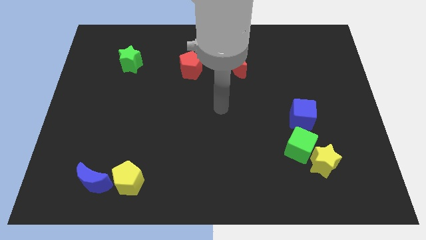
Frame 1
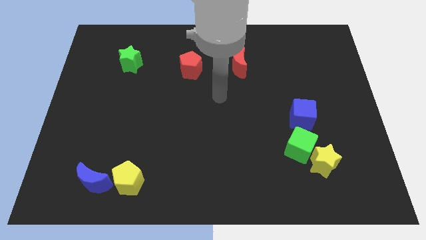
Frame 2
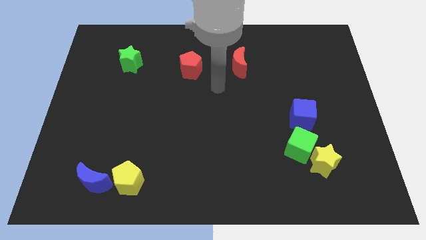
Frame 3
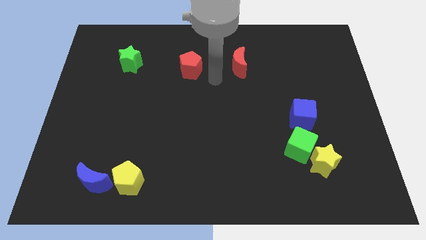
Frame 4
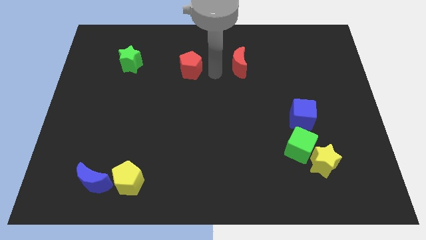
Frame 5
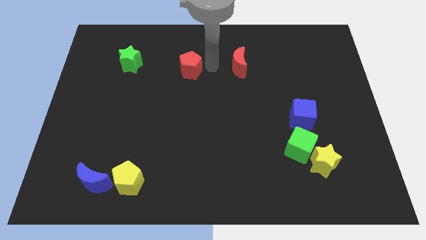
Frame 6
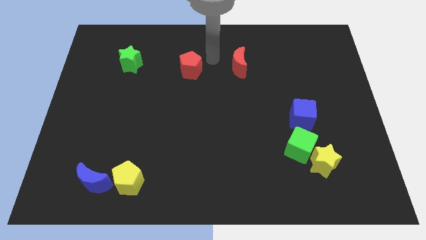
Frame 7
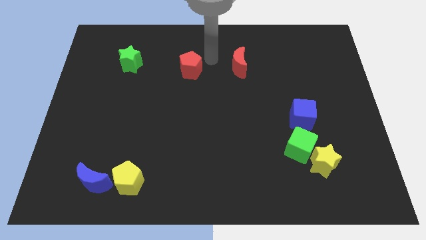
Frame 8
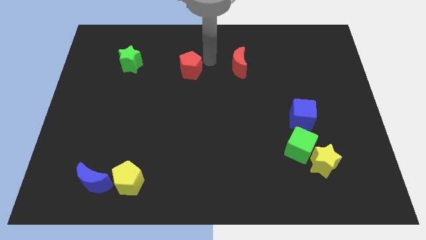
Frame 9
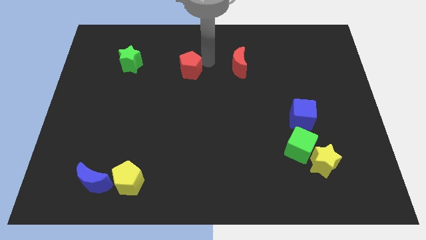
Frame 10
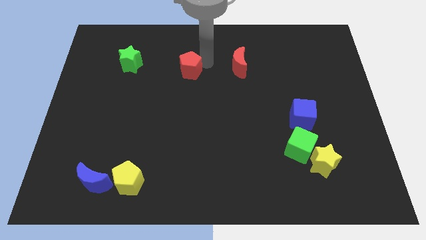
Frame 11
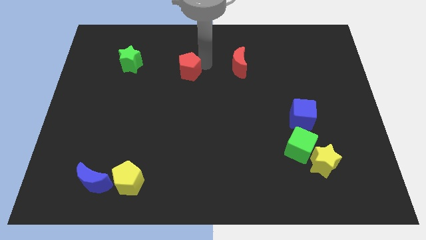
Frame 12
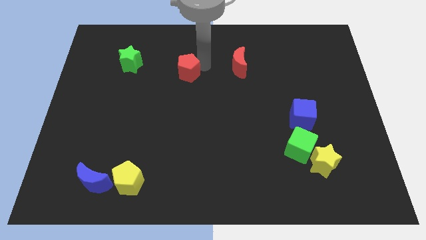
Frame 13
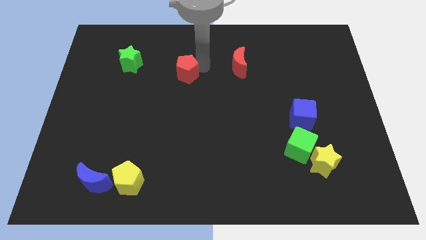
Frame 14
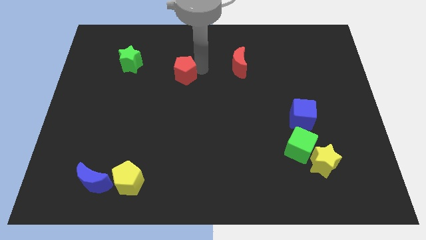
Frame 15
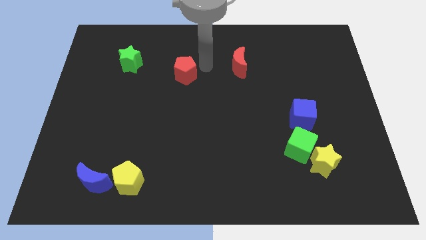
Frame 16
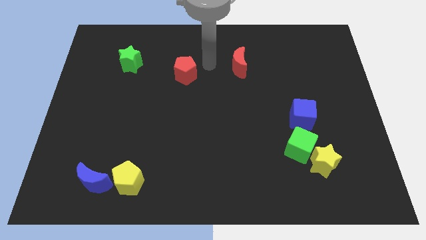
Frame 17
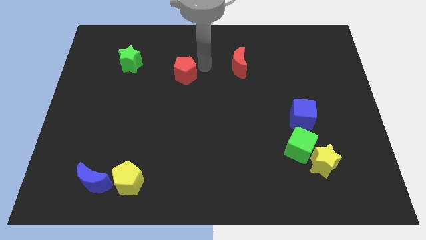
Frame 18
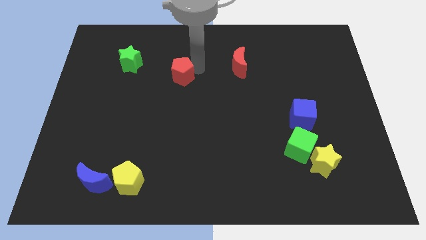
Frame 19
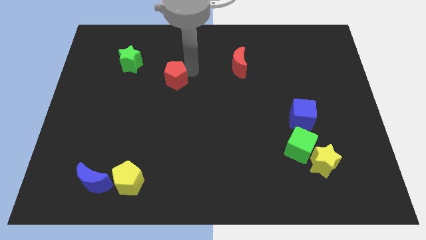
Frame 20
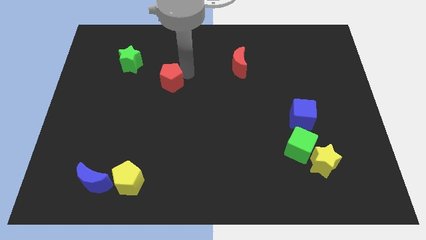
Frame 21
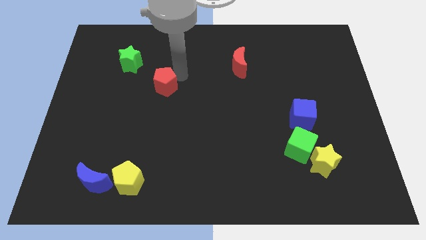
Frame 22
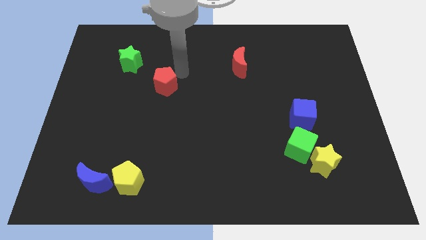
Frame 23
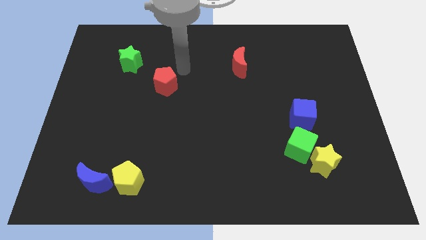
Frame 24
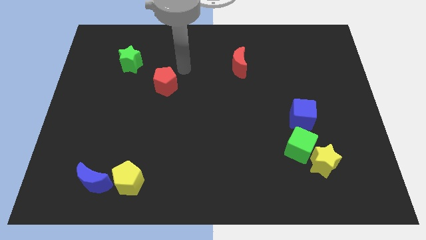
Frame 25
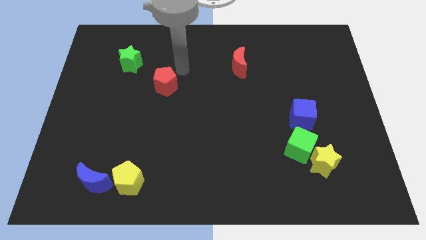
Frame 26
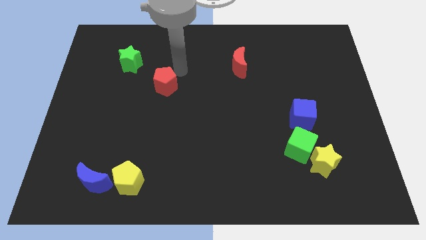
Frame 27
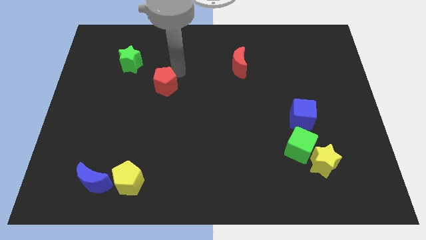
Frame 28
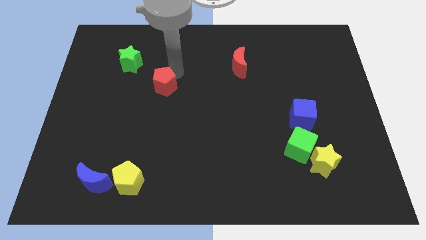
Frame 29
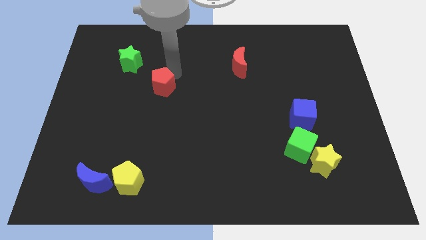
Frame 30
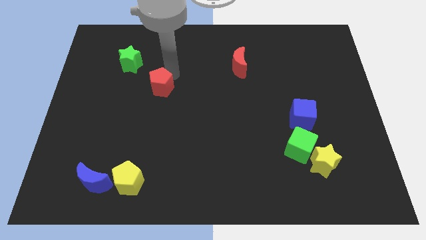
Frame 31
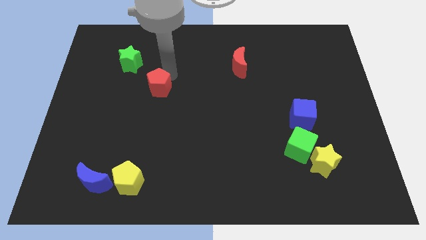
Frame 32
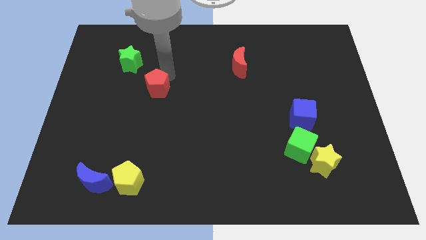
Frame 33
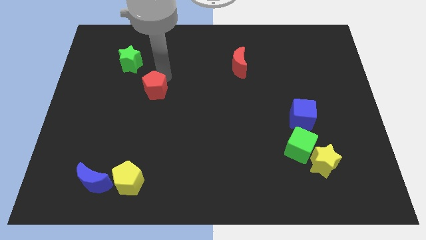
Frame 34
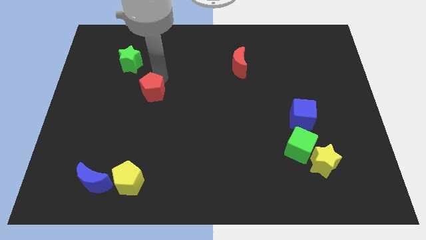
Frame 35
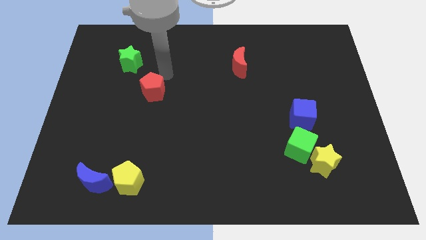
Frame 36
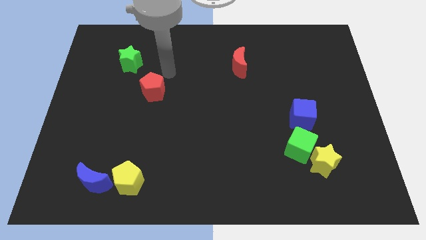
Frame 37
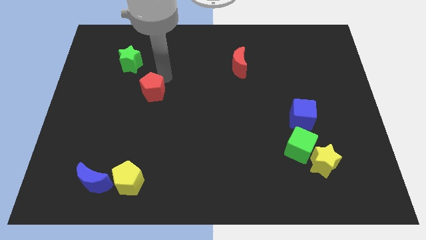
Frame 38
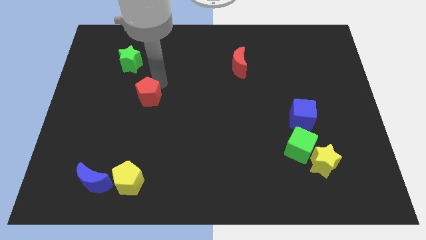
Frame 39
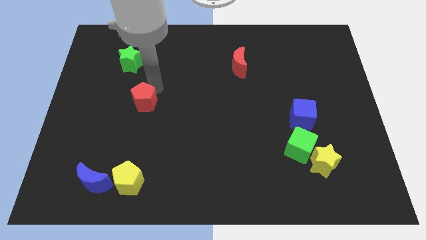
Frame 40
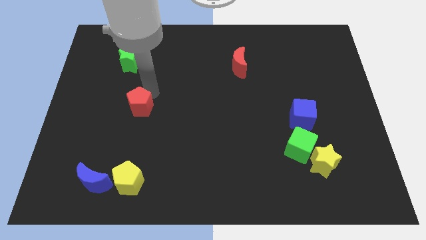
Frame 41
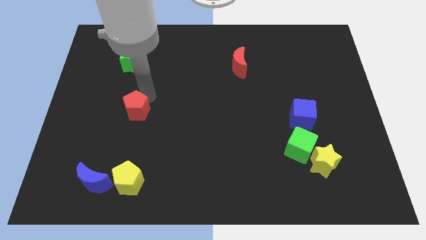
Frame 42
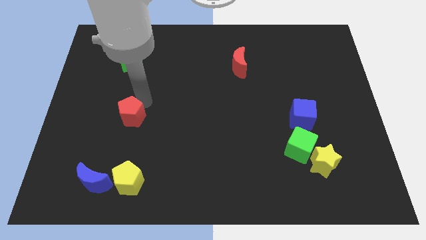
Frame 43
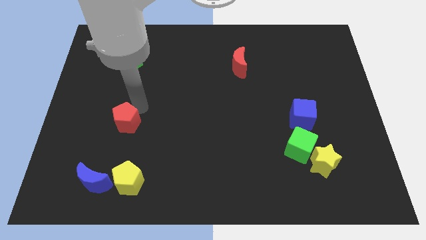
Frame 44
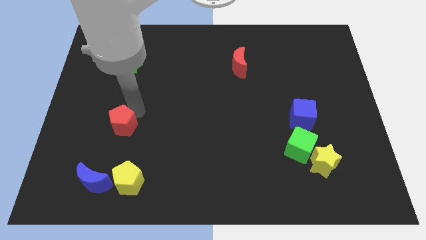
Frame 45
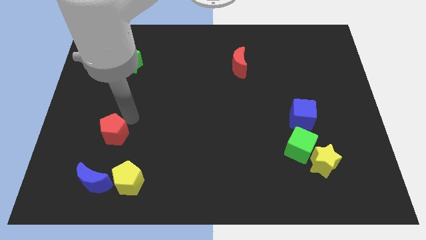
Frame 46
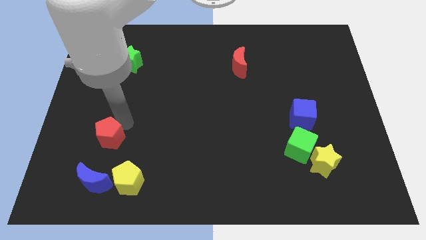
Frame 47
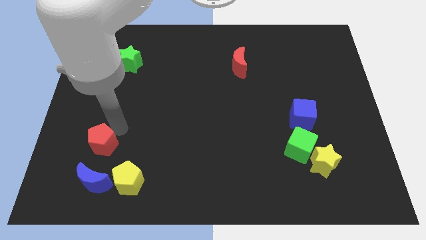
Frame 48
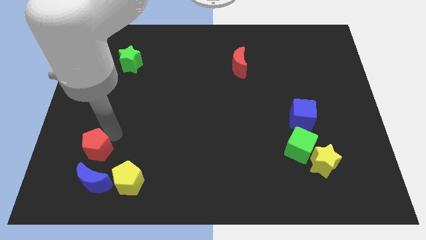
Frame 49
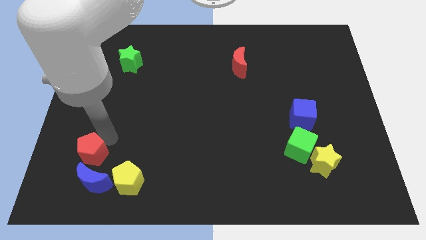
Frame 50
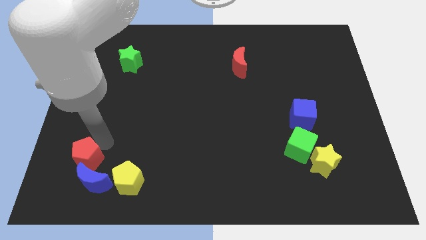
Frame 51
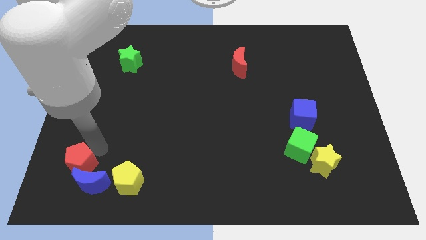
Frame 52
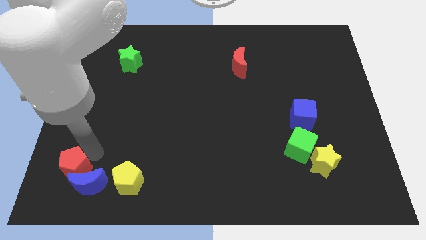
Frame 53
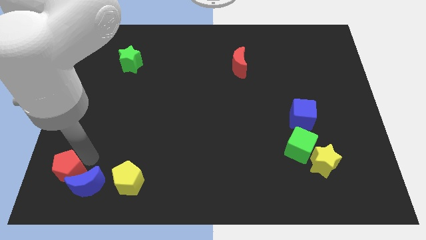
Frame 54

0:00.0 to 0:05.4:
push the red pentagon to the bottom left corner

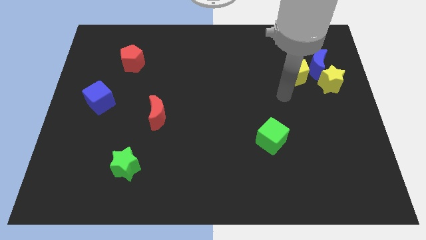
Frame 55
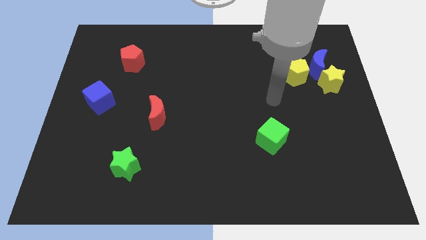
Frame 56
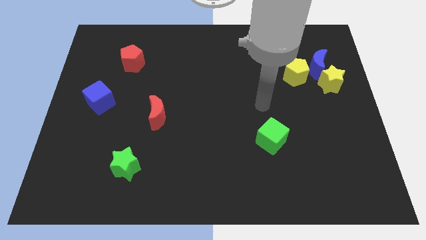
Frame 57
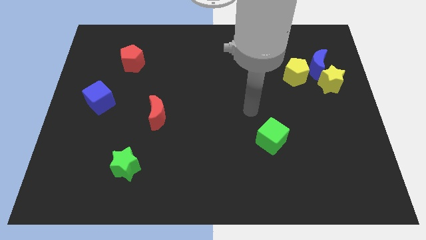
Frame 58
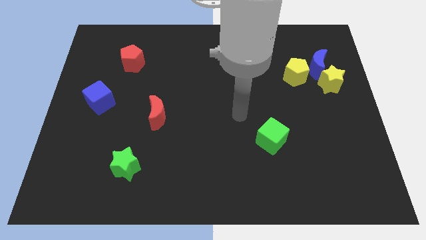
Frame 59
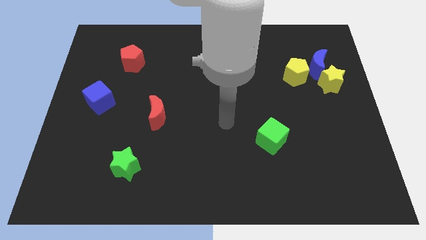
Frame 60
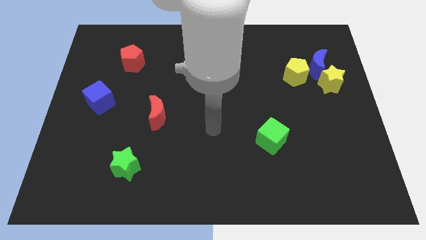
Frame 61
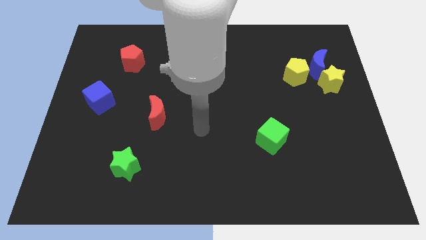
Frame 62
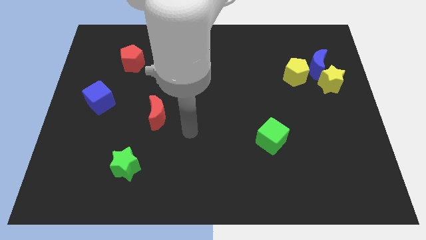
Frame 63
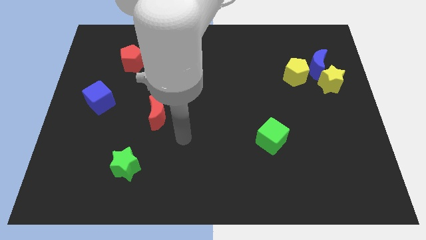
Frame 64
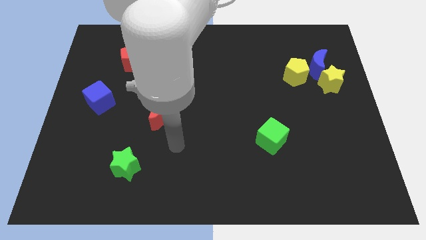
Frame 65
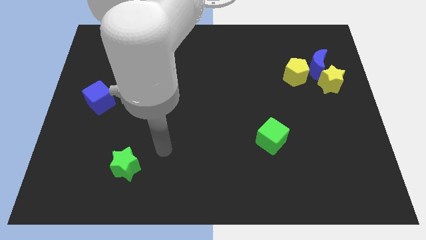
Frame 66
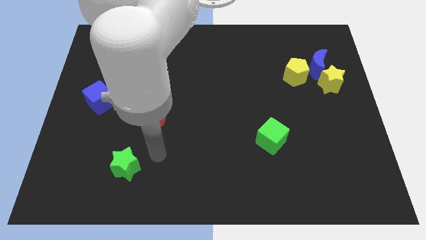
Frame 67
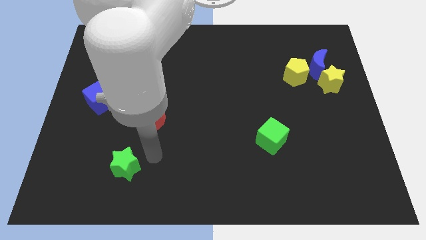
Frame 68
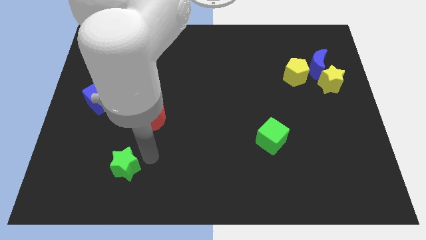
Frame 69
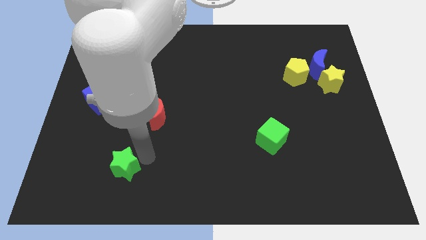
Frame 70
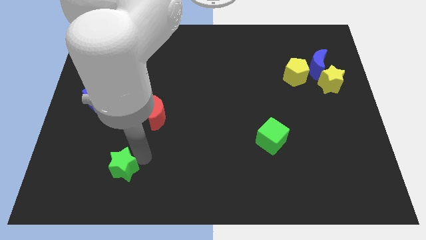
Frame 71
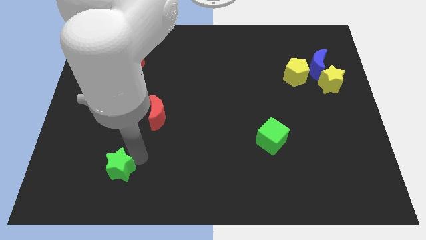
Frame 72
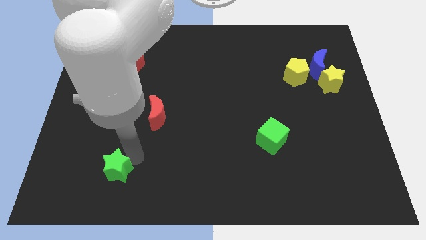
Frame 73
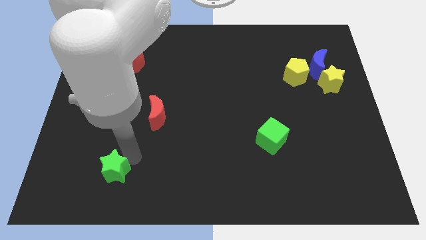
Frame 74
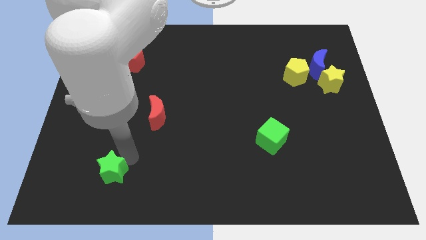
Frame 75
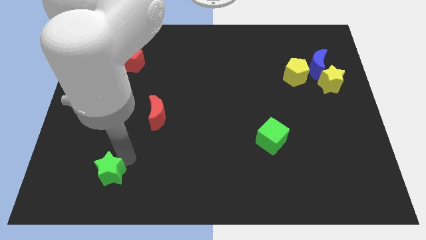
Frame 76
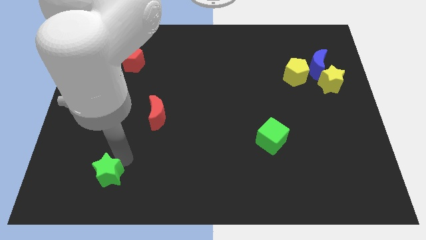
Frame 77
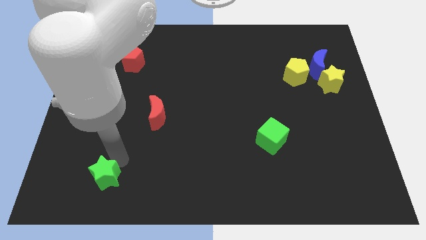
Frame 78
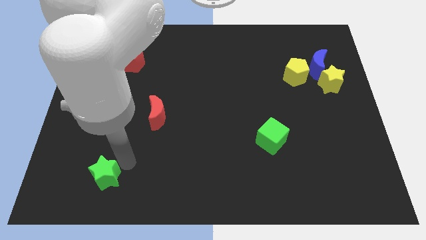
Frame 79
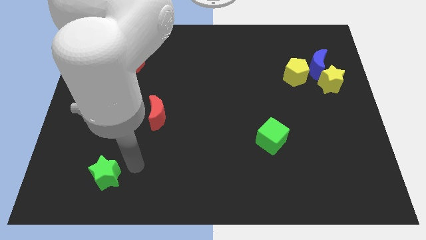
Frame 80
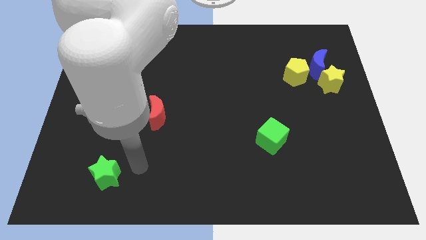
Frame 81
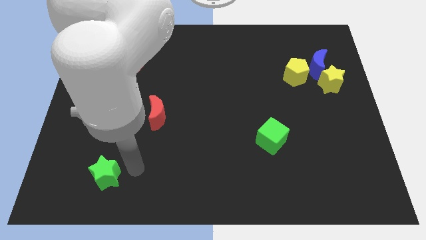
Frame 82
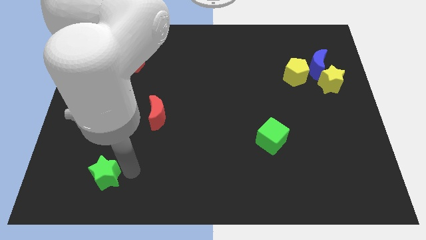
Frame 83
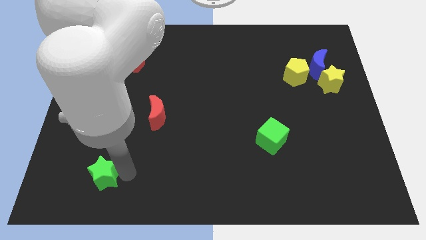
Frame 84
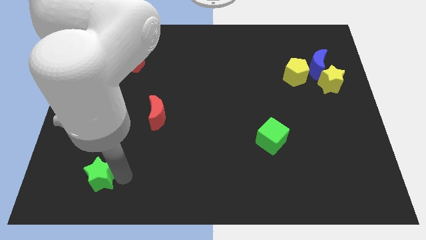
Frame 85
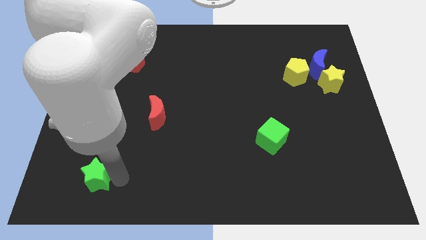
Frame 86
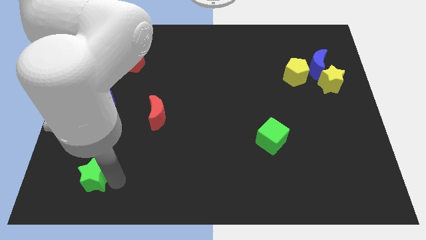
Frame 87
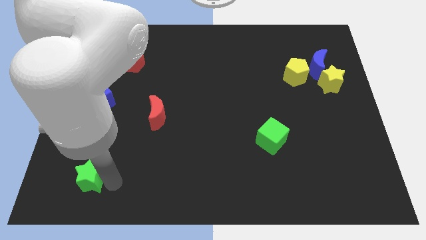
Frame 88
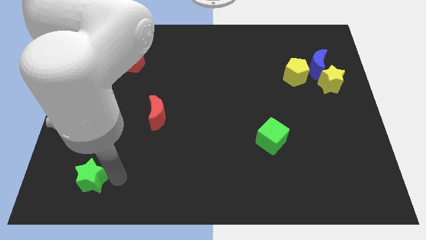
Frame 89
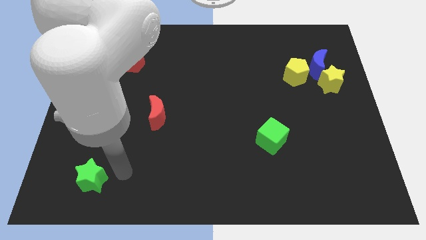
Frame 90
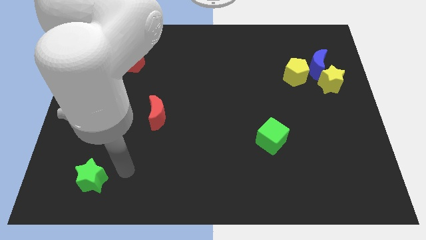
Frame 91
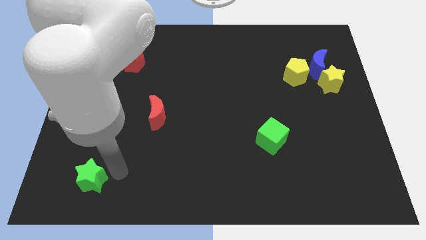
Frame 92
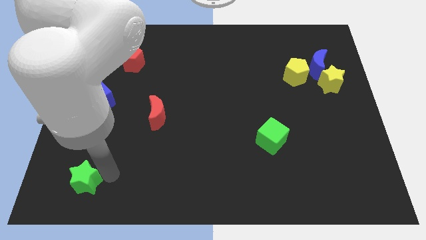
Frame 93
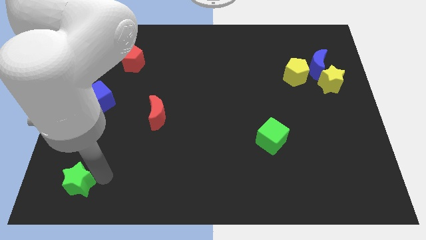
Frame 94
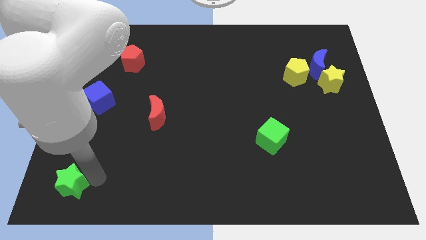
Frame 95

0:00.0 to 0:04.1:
slide the green star to the bottom left
